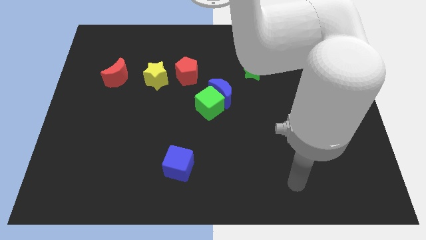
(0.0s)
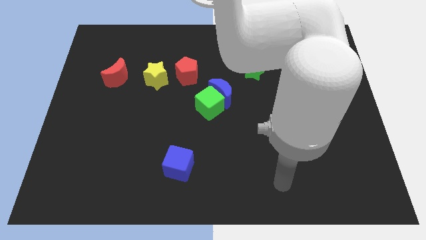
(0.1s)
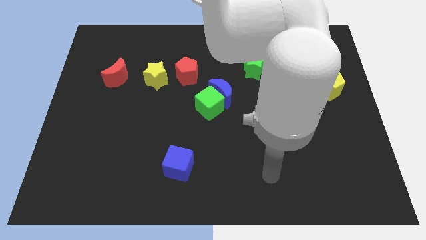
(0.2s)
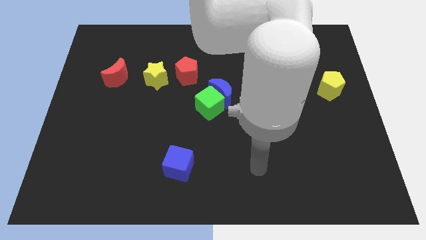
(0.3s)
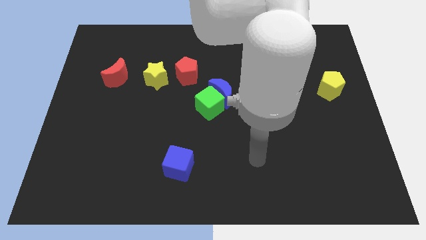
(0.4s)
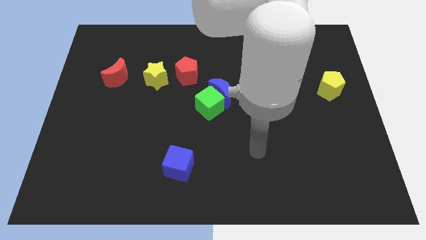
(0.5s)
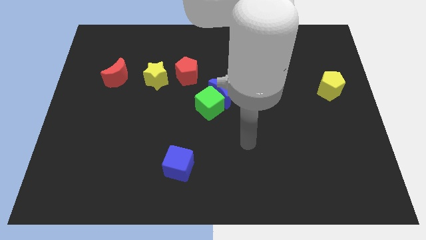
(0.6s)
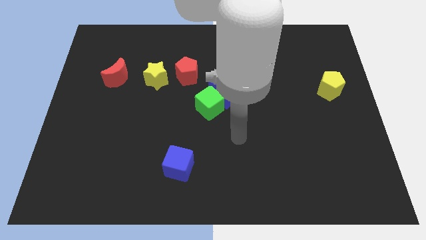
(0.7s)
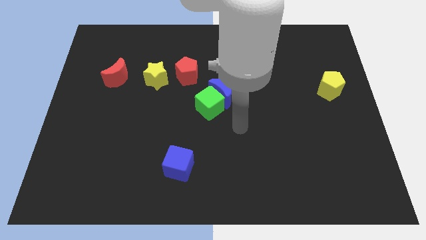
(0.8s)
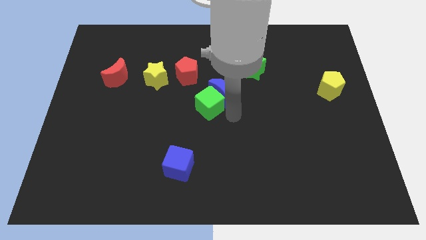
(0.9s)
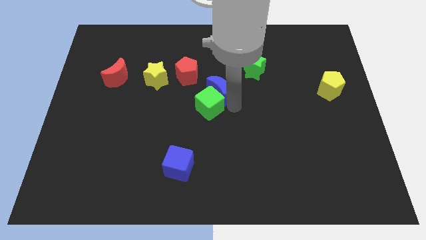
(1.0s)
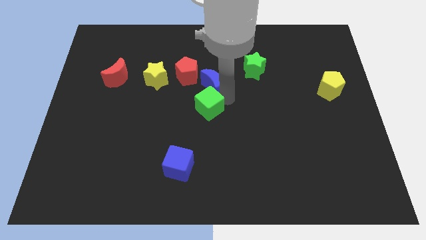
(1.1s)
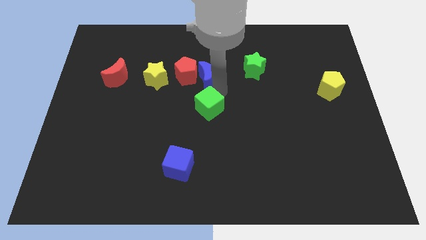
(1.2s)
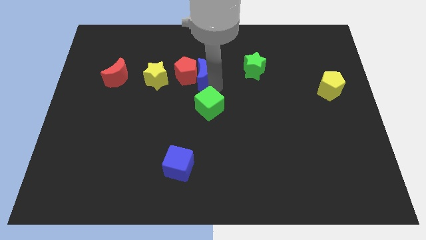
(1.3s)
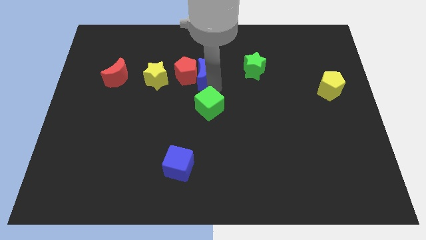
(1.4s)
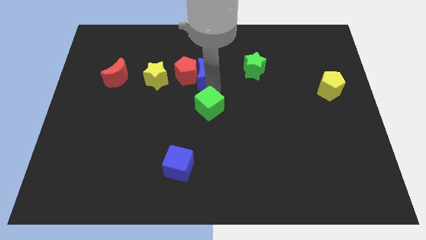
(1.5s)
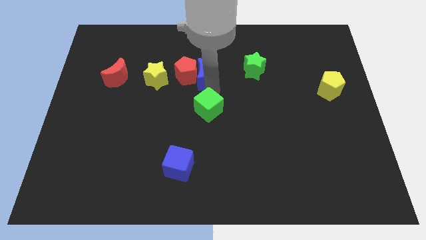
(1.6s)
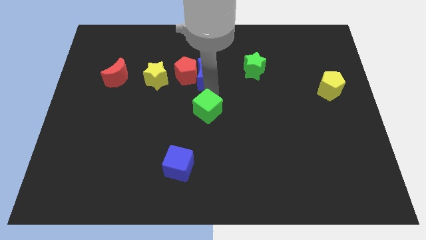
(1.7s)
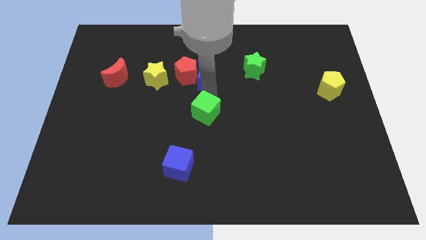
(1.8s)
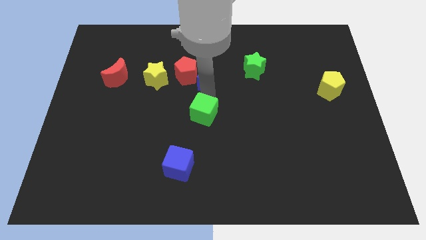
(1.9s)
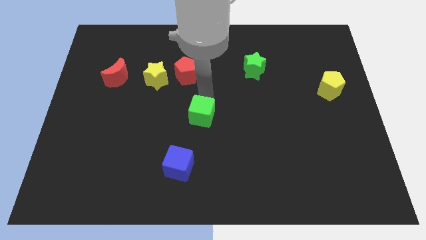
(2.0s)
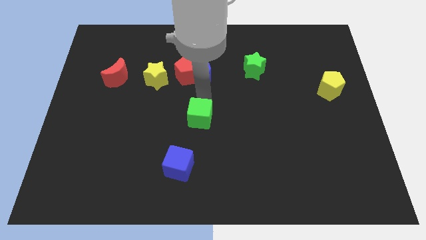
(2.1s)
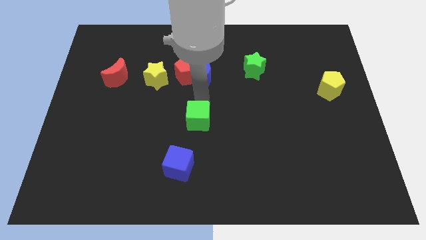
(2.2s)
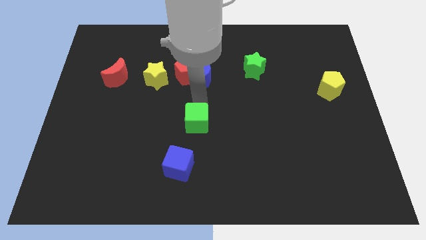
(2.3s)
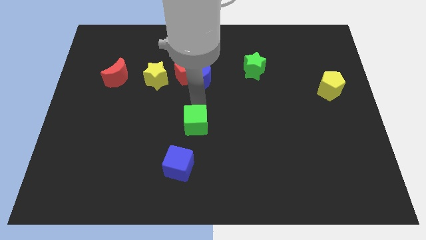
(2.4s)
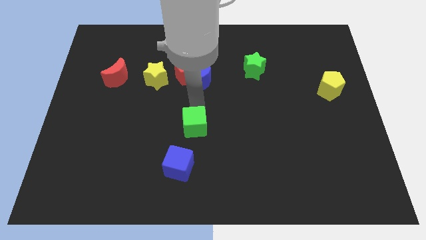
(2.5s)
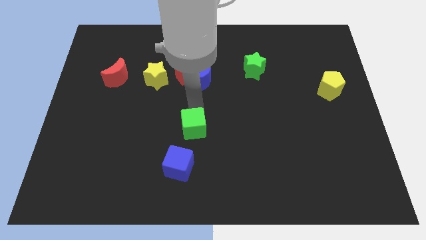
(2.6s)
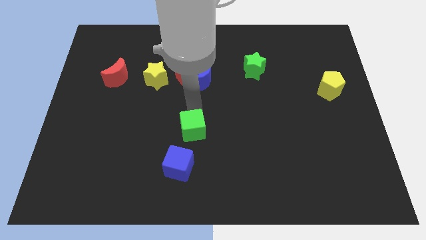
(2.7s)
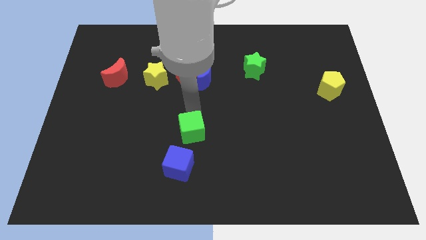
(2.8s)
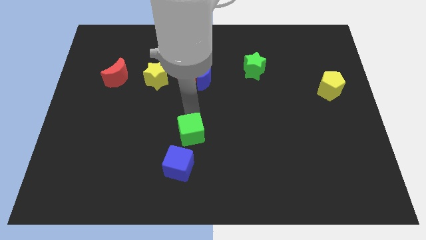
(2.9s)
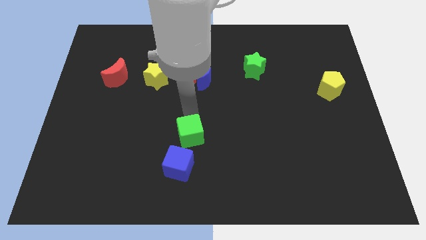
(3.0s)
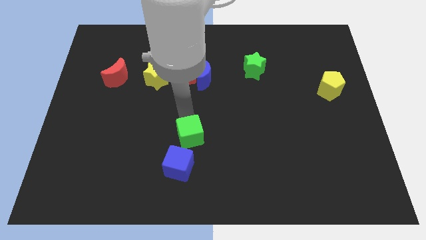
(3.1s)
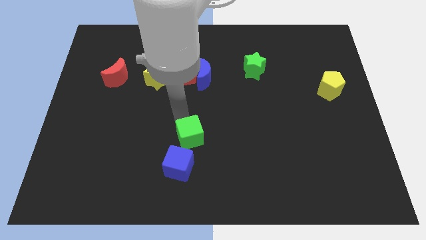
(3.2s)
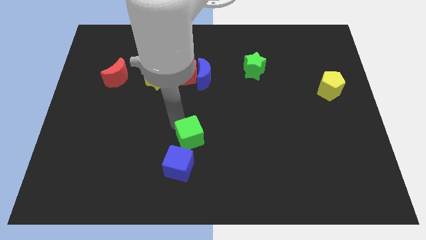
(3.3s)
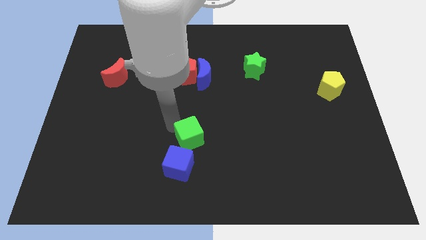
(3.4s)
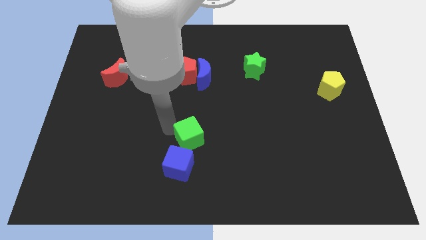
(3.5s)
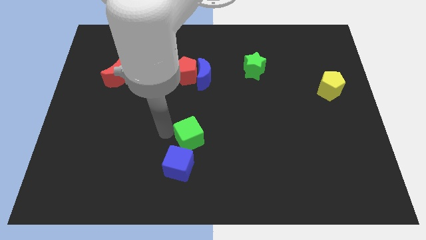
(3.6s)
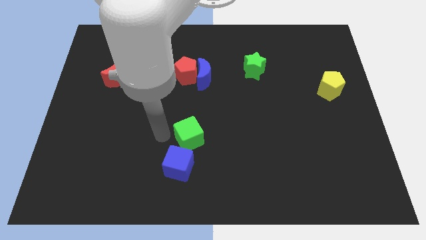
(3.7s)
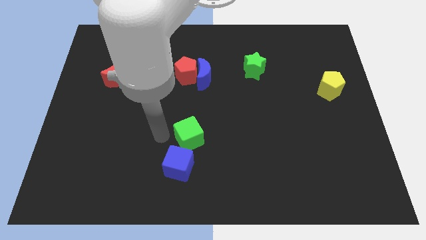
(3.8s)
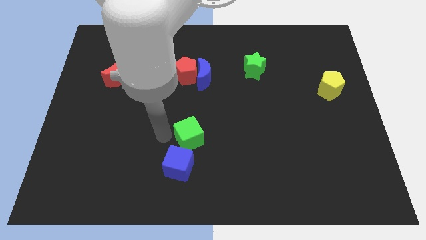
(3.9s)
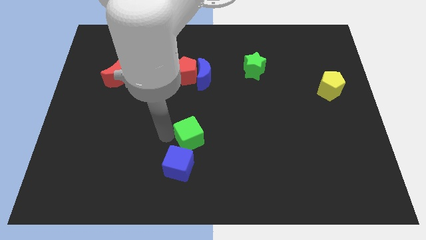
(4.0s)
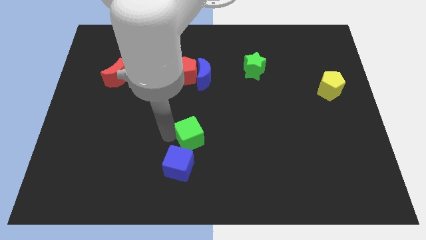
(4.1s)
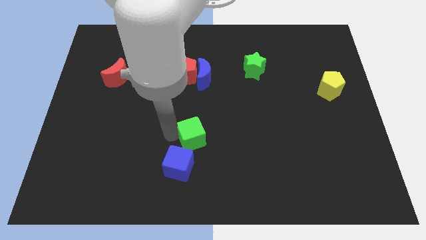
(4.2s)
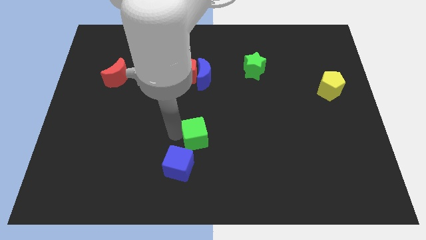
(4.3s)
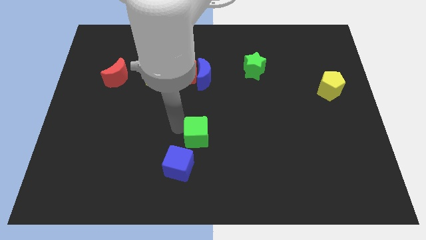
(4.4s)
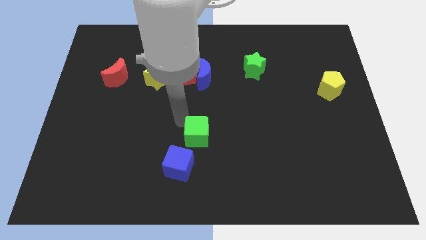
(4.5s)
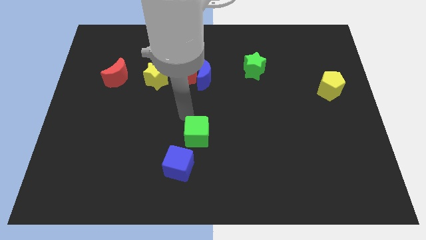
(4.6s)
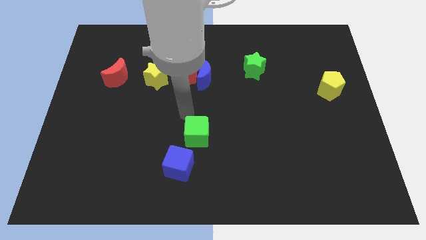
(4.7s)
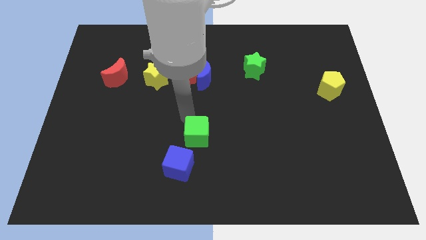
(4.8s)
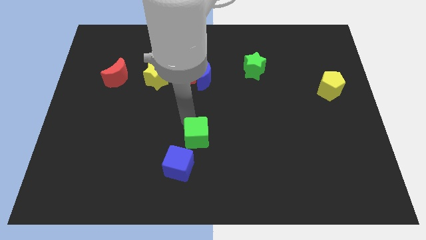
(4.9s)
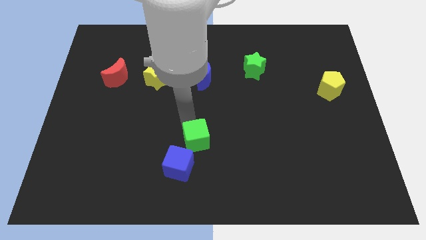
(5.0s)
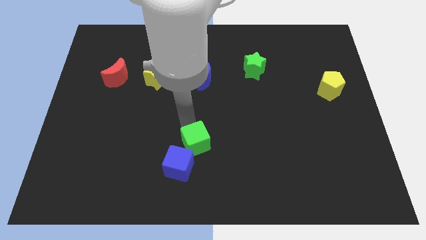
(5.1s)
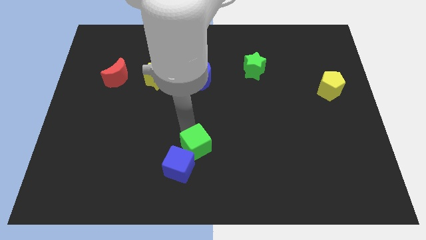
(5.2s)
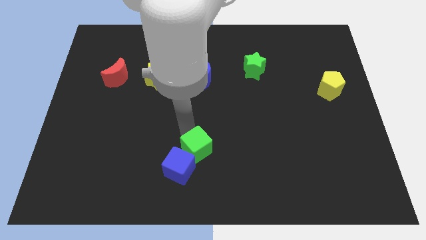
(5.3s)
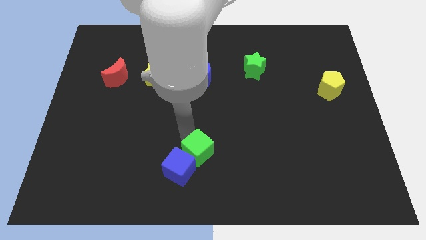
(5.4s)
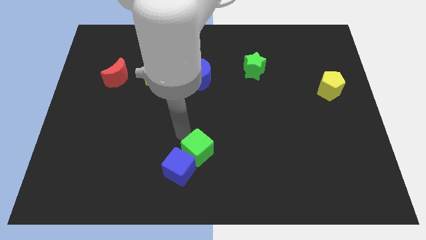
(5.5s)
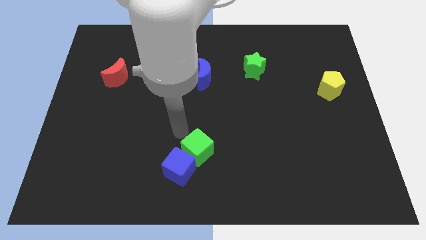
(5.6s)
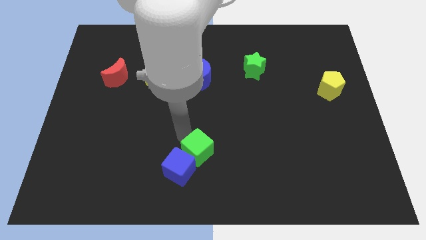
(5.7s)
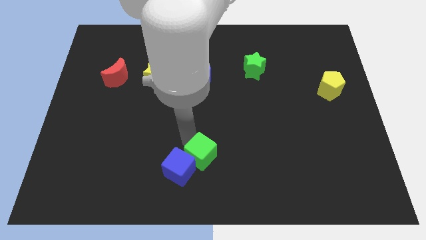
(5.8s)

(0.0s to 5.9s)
put the green cube to the bottom

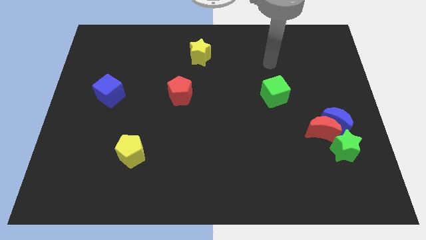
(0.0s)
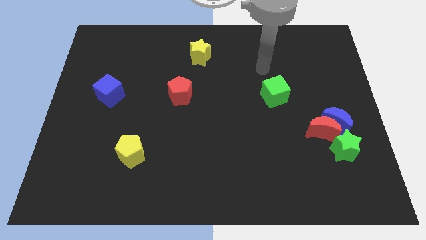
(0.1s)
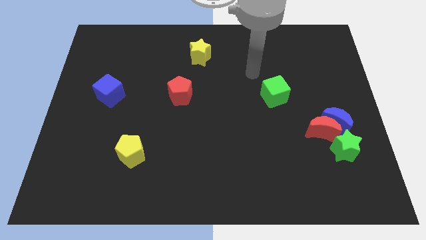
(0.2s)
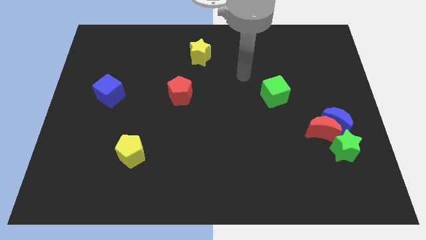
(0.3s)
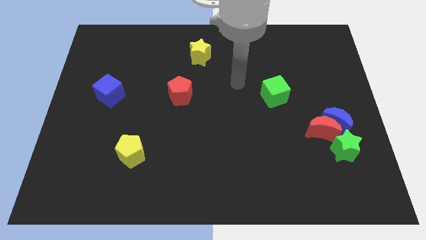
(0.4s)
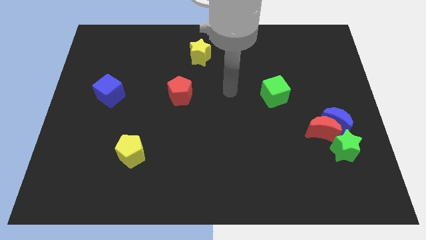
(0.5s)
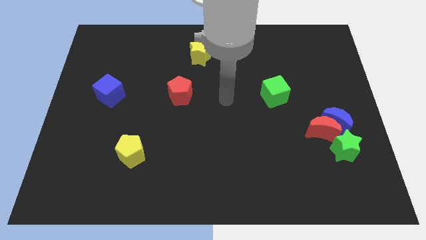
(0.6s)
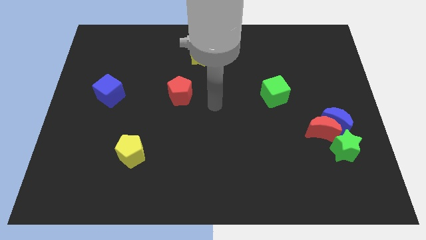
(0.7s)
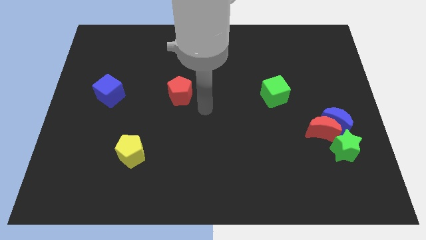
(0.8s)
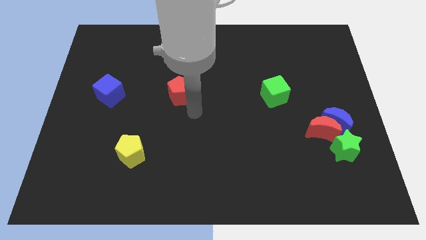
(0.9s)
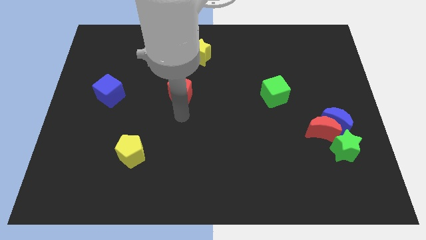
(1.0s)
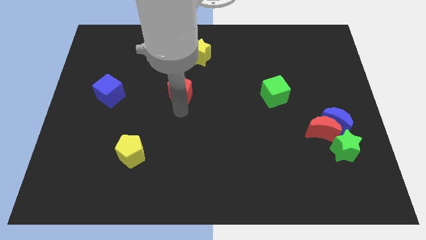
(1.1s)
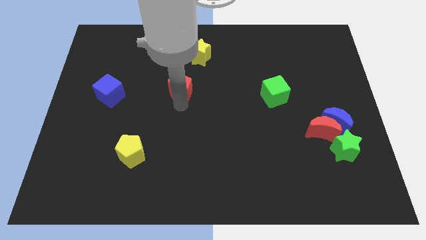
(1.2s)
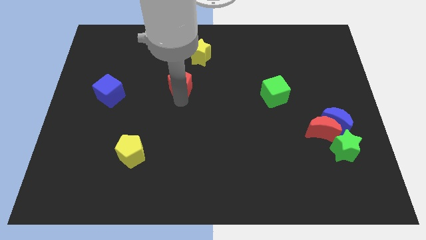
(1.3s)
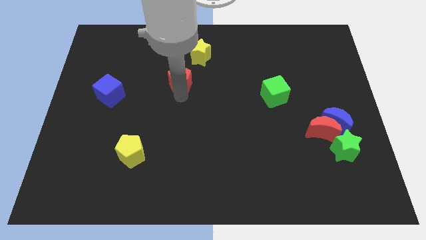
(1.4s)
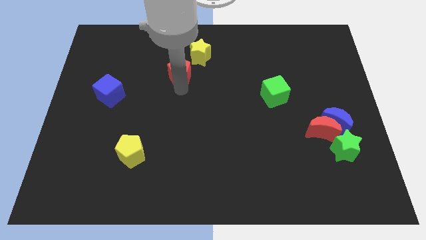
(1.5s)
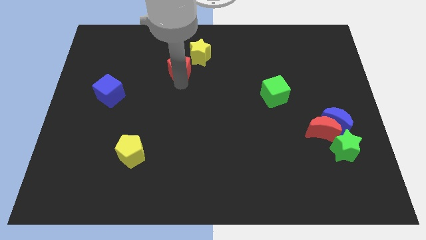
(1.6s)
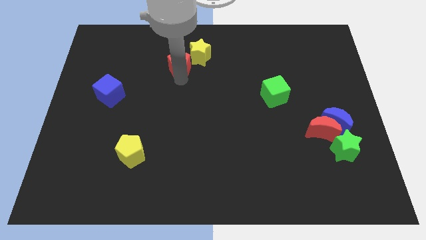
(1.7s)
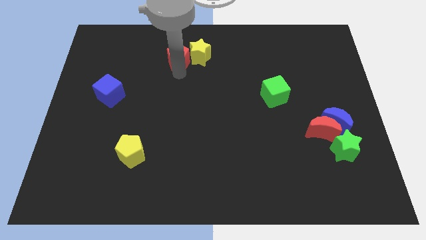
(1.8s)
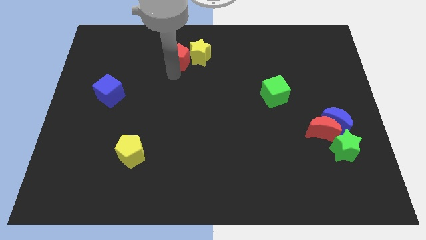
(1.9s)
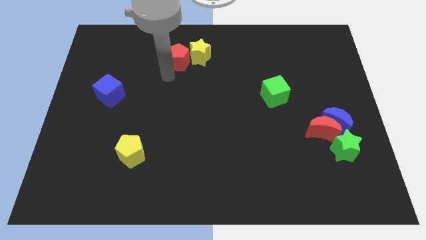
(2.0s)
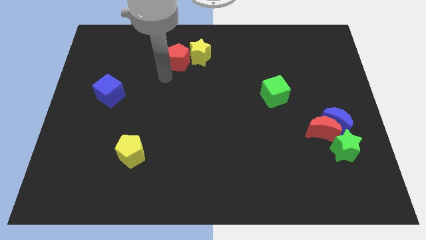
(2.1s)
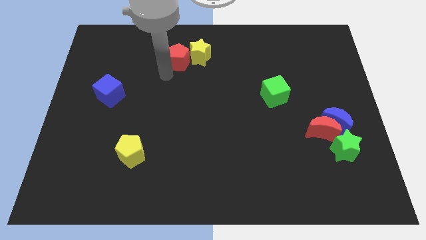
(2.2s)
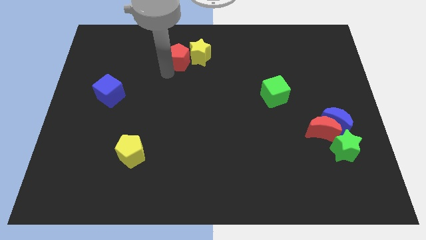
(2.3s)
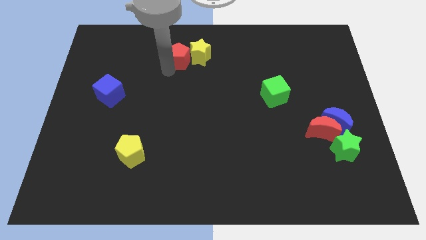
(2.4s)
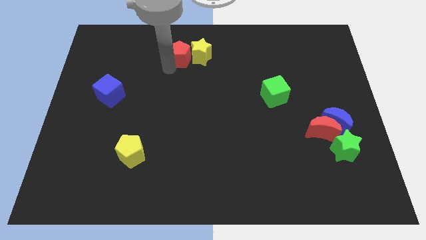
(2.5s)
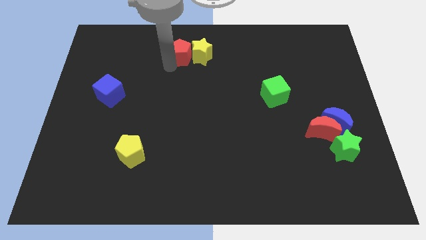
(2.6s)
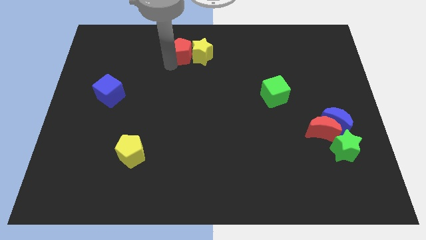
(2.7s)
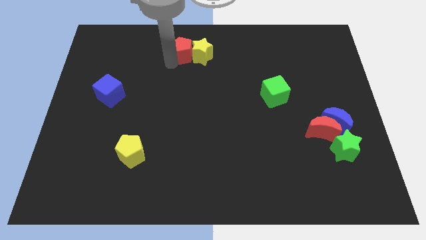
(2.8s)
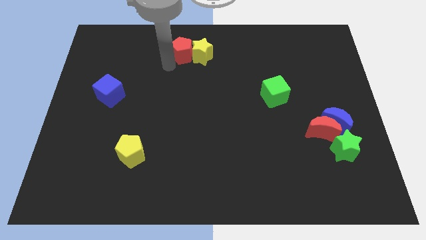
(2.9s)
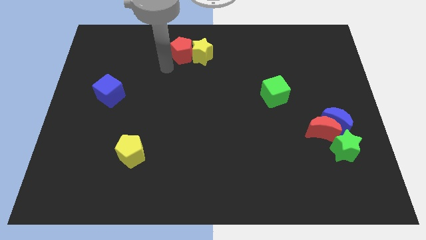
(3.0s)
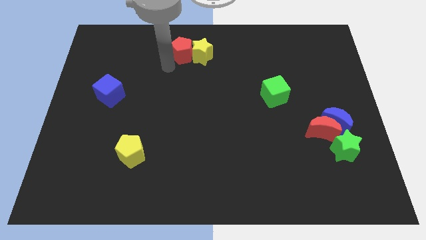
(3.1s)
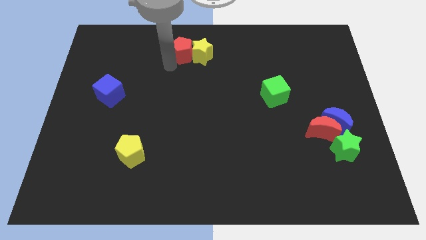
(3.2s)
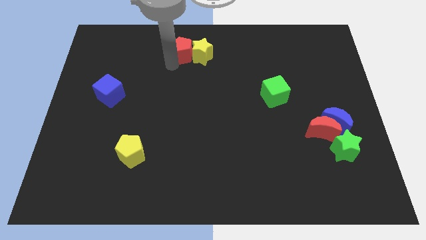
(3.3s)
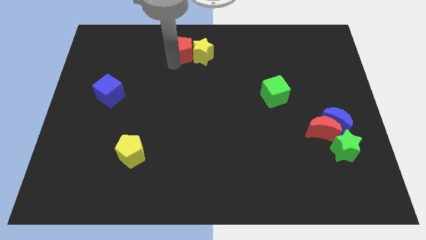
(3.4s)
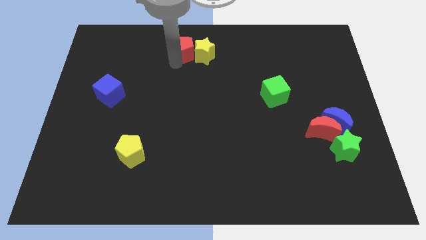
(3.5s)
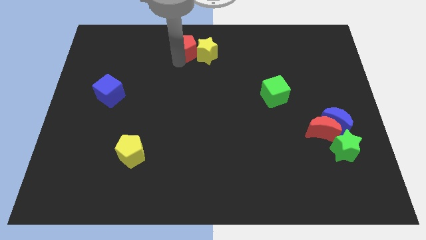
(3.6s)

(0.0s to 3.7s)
push the red pentagon to the towards your base
